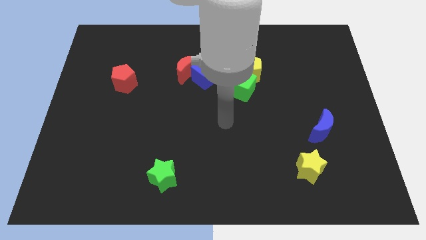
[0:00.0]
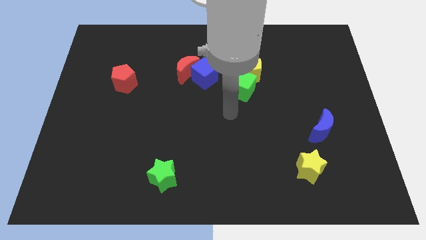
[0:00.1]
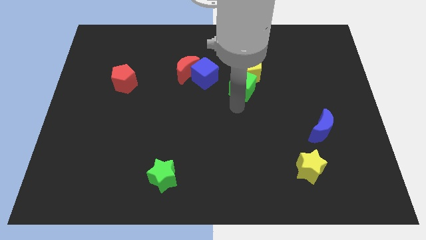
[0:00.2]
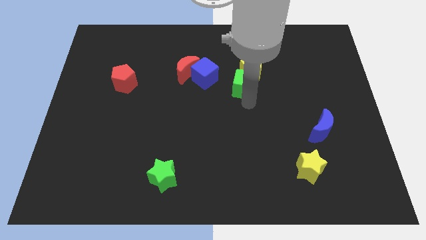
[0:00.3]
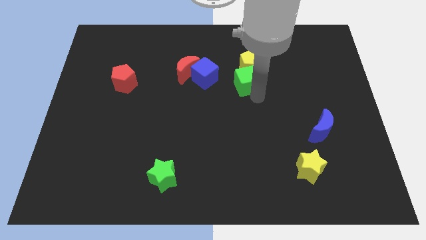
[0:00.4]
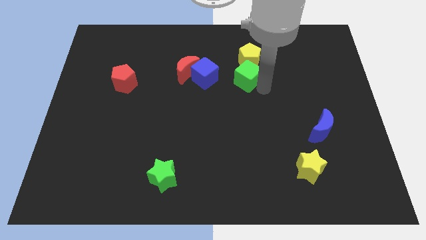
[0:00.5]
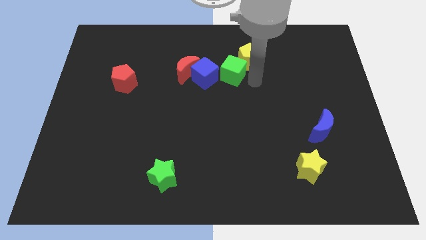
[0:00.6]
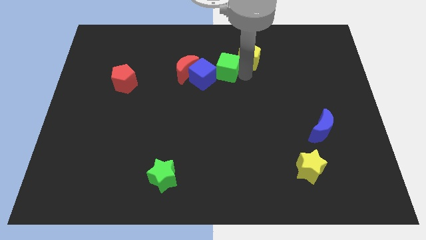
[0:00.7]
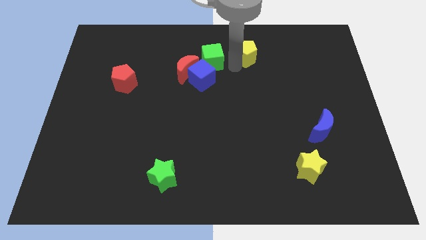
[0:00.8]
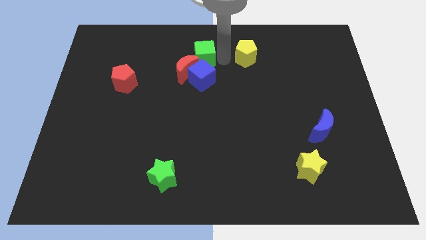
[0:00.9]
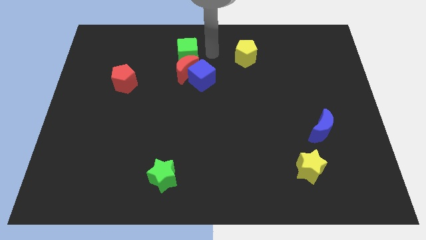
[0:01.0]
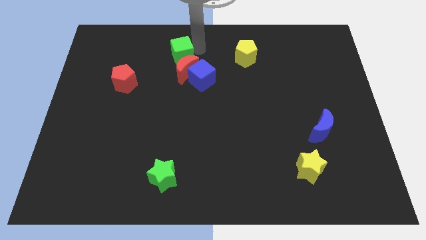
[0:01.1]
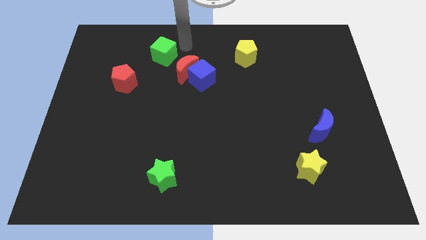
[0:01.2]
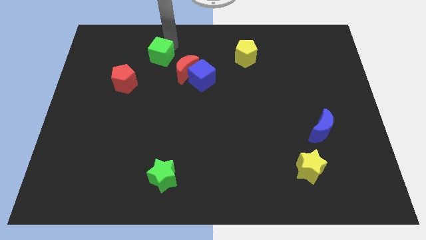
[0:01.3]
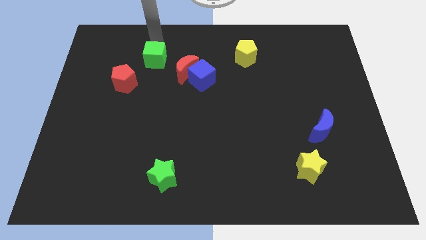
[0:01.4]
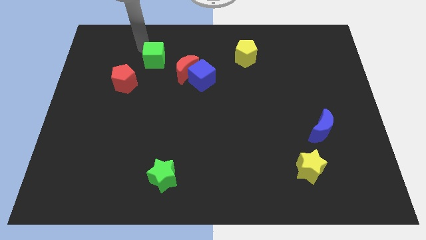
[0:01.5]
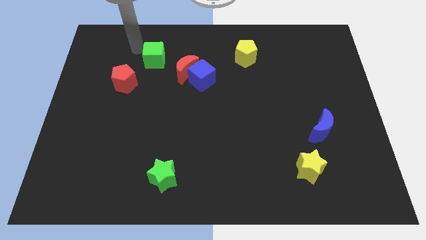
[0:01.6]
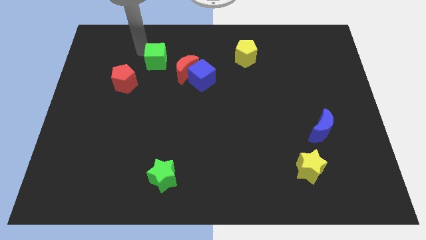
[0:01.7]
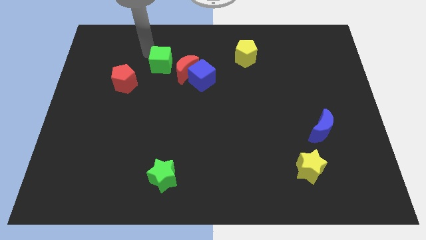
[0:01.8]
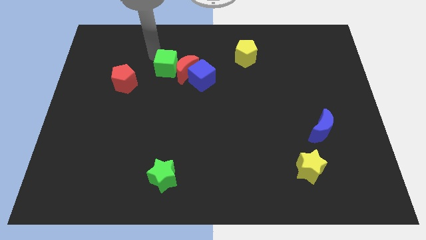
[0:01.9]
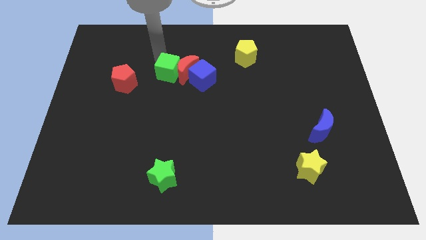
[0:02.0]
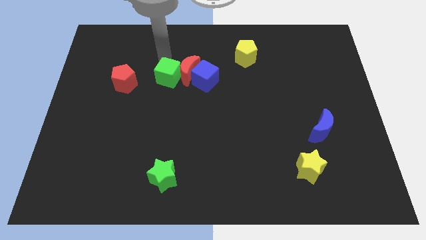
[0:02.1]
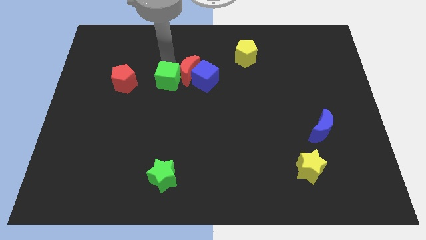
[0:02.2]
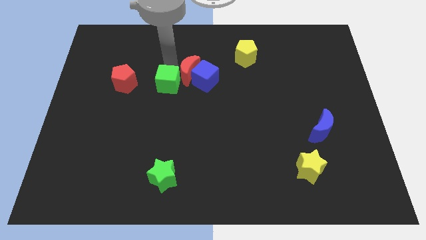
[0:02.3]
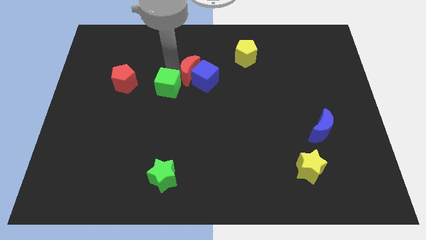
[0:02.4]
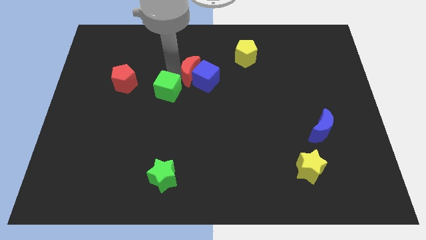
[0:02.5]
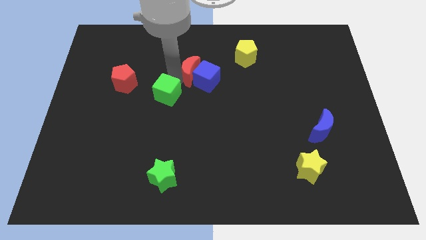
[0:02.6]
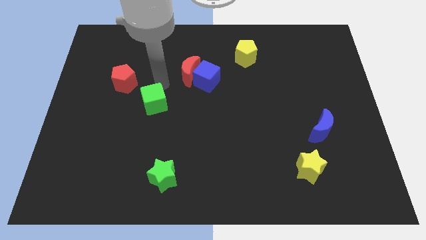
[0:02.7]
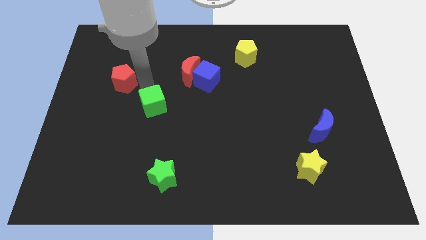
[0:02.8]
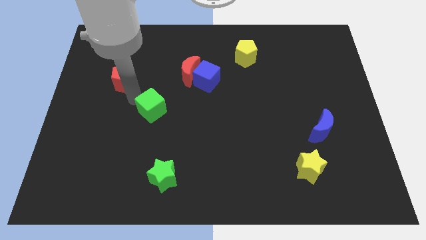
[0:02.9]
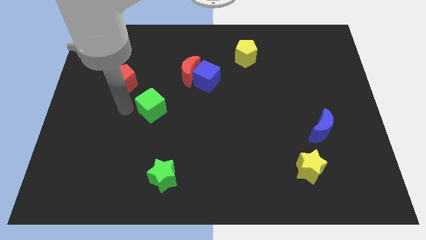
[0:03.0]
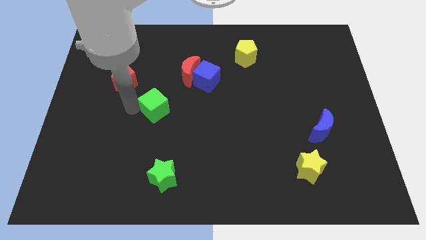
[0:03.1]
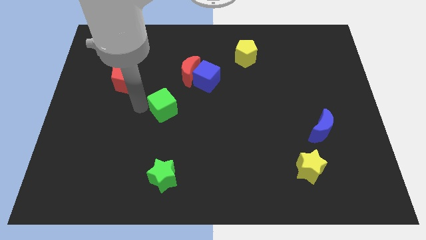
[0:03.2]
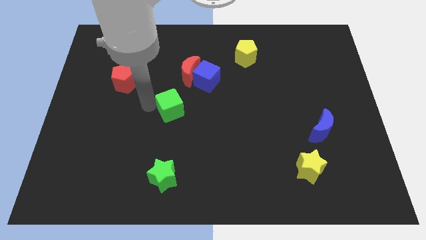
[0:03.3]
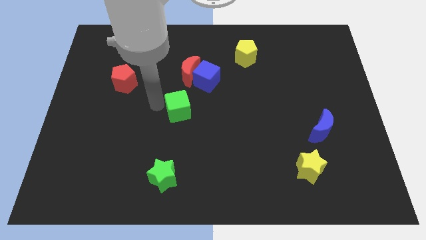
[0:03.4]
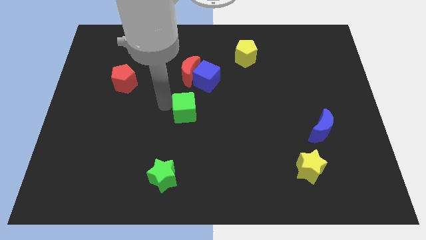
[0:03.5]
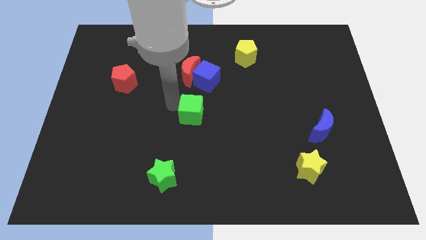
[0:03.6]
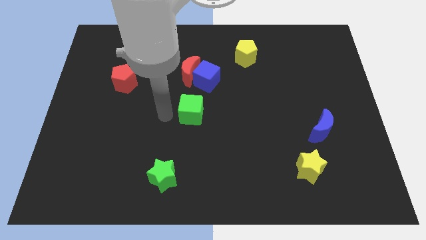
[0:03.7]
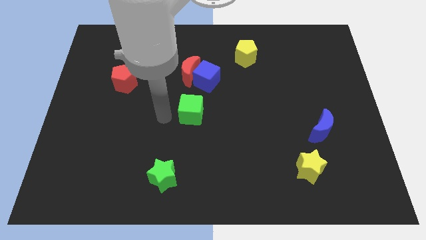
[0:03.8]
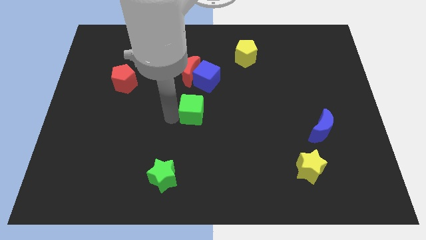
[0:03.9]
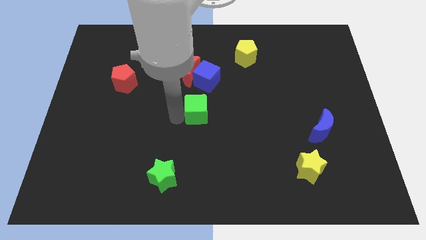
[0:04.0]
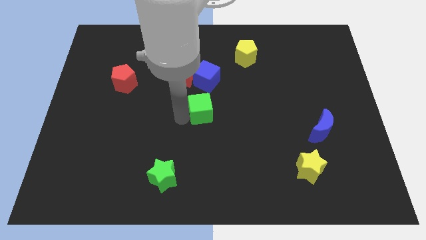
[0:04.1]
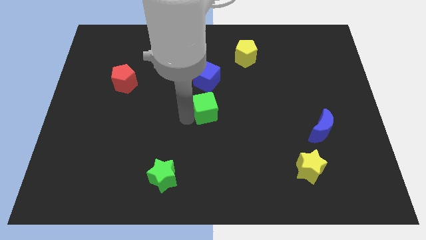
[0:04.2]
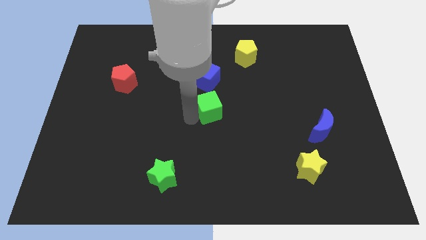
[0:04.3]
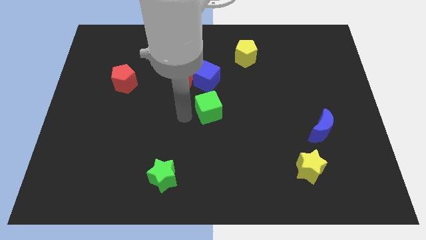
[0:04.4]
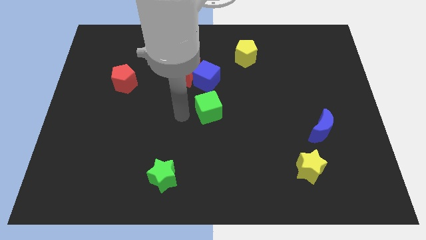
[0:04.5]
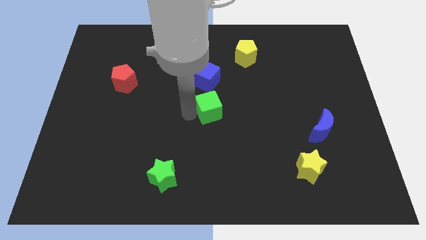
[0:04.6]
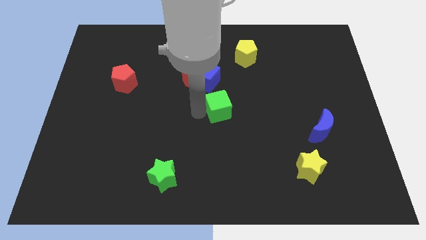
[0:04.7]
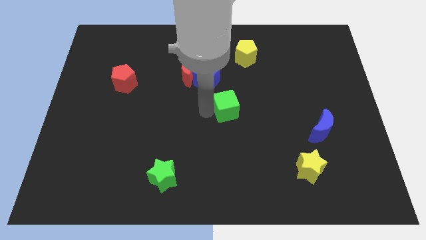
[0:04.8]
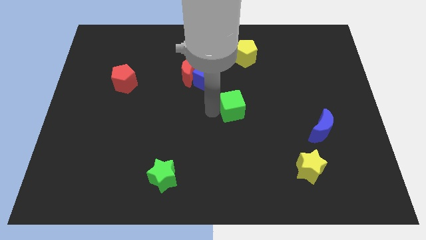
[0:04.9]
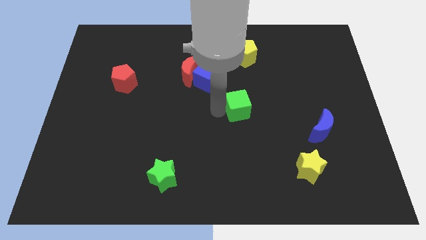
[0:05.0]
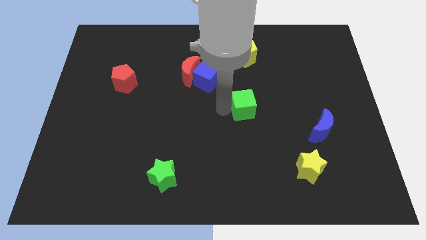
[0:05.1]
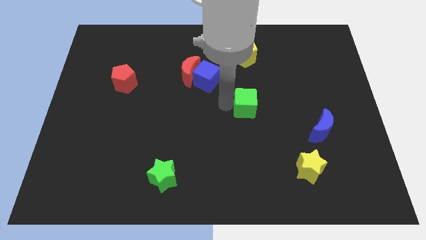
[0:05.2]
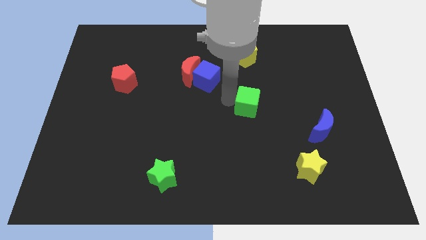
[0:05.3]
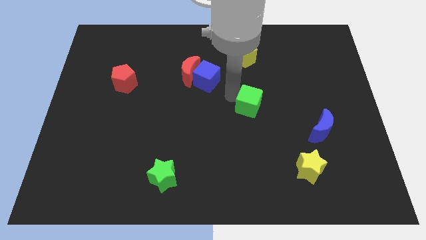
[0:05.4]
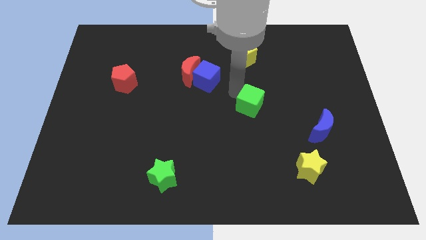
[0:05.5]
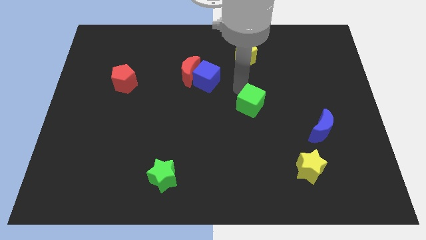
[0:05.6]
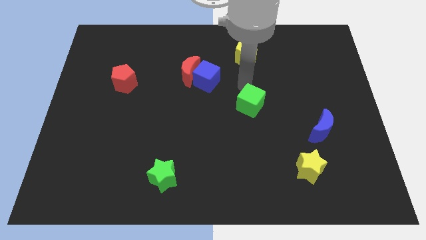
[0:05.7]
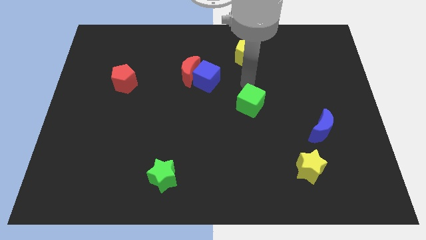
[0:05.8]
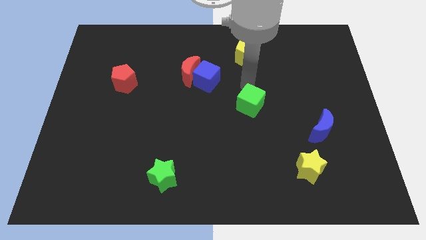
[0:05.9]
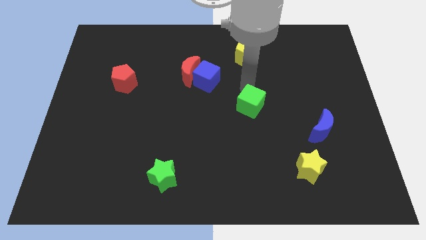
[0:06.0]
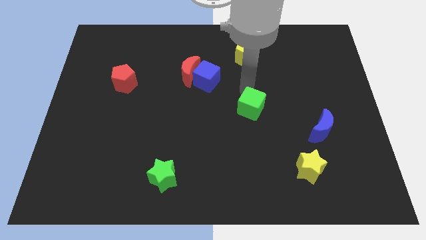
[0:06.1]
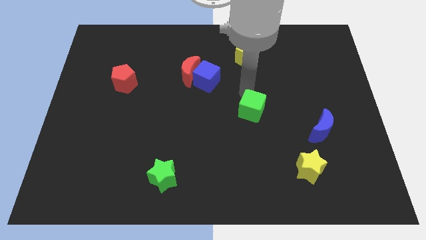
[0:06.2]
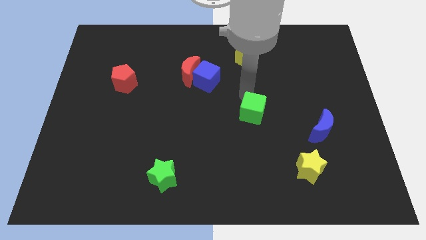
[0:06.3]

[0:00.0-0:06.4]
slide the green cube downwards a little

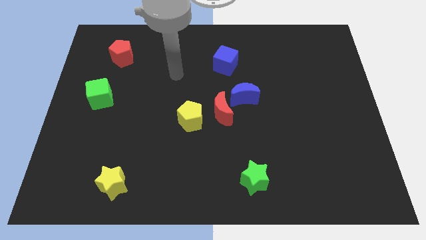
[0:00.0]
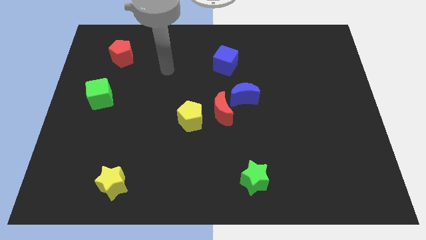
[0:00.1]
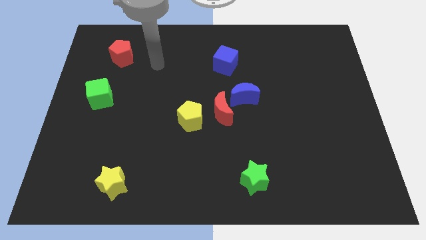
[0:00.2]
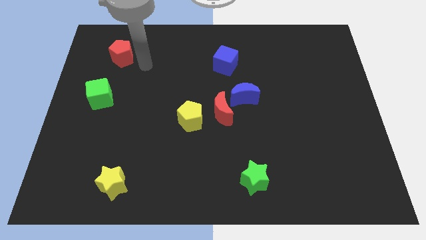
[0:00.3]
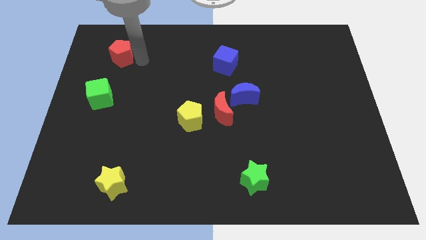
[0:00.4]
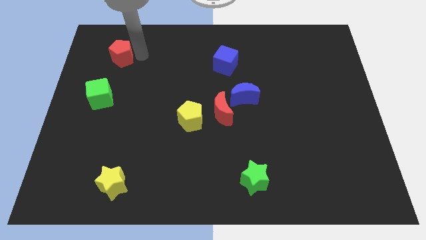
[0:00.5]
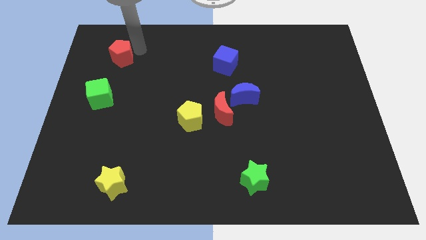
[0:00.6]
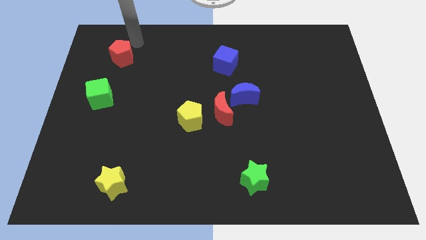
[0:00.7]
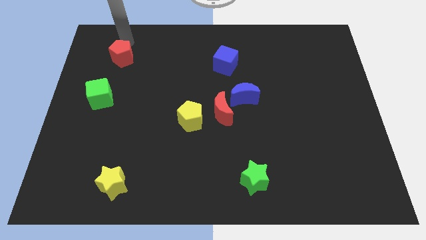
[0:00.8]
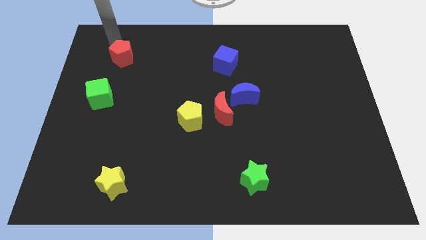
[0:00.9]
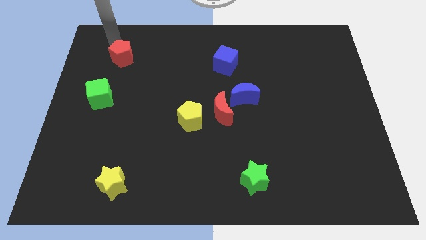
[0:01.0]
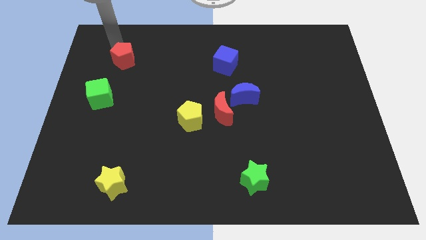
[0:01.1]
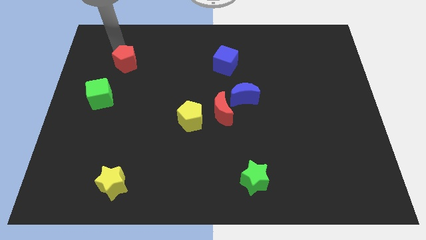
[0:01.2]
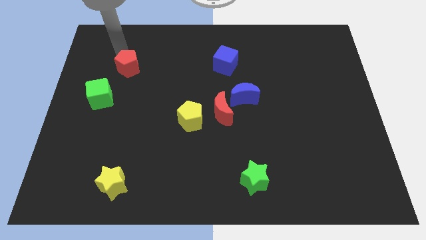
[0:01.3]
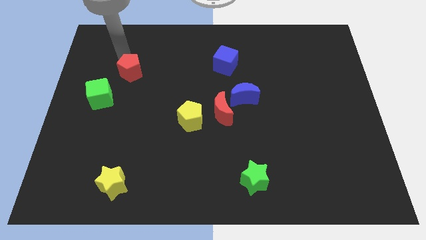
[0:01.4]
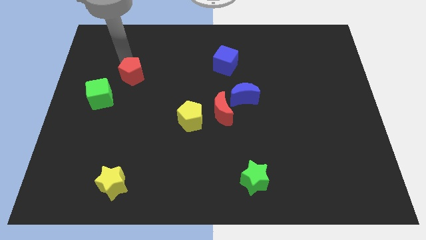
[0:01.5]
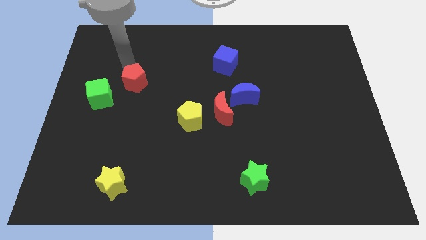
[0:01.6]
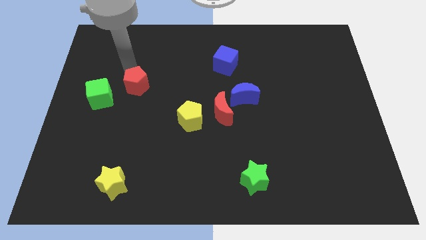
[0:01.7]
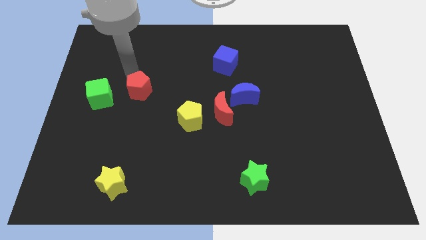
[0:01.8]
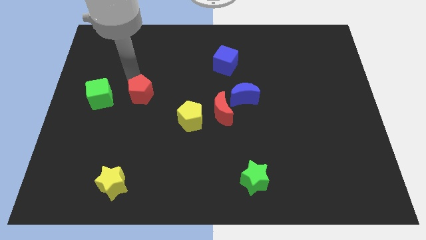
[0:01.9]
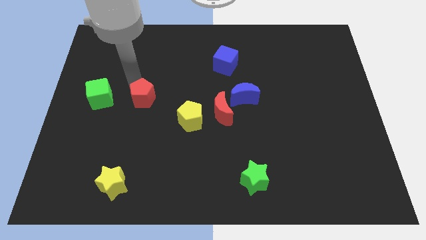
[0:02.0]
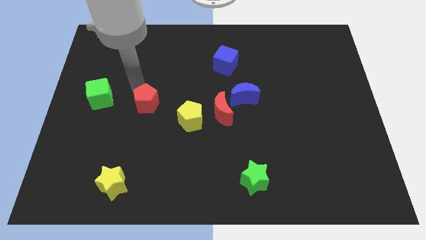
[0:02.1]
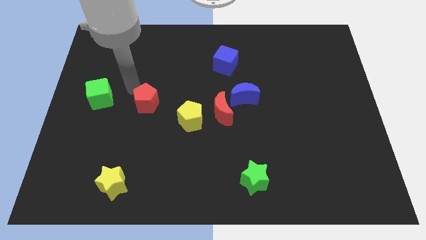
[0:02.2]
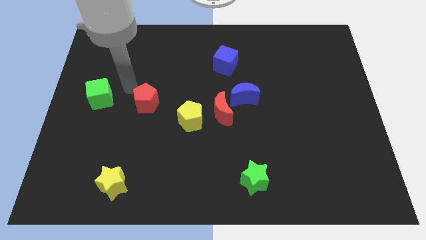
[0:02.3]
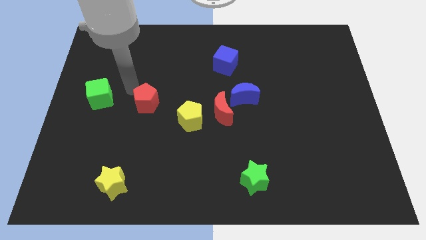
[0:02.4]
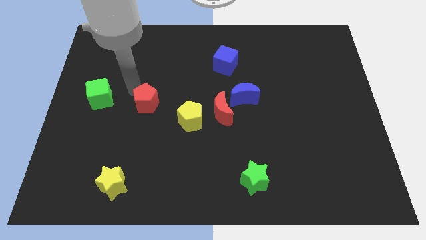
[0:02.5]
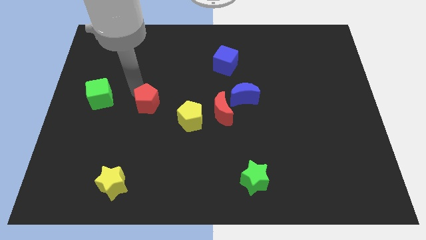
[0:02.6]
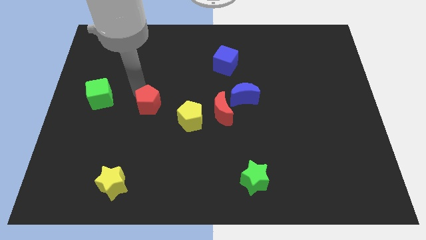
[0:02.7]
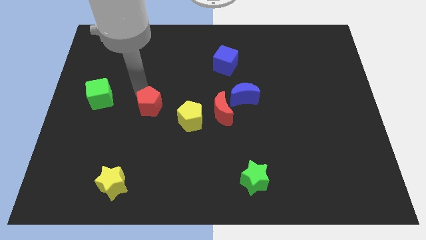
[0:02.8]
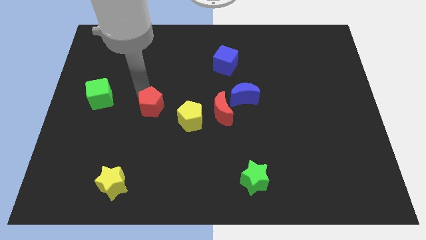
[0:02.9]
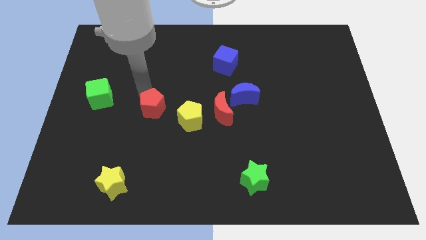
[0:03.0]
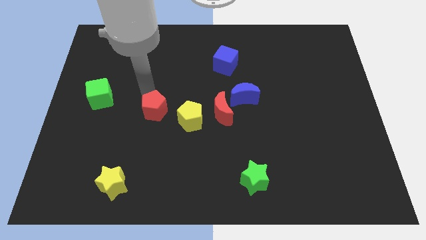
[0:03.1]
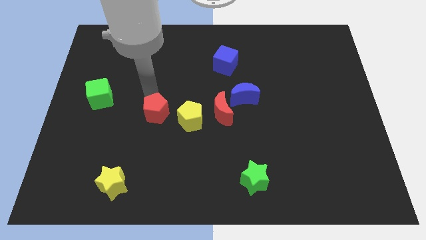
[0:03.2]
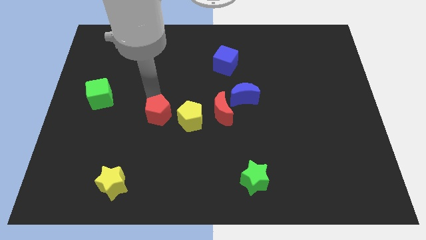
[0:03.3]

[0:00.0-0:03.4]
push the red pentagon diagonally downwards and right
